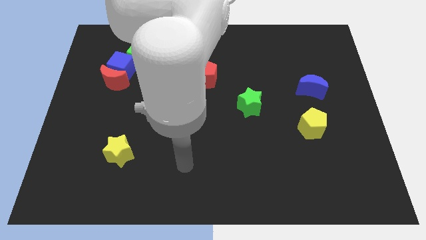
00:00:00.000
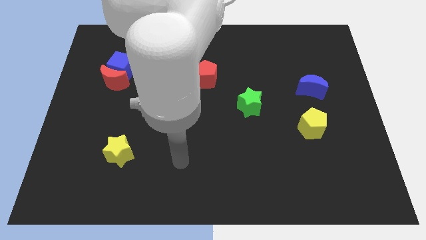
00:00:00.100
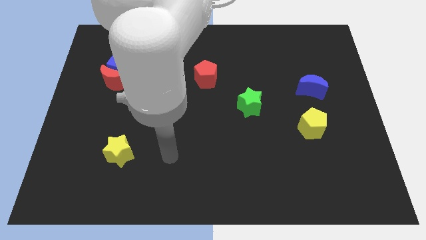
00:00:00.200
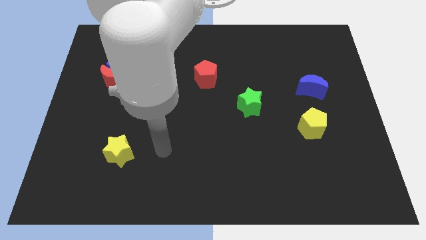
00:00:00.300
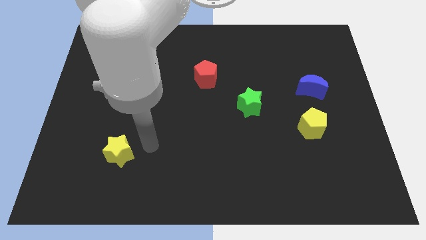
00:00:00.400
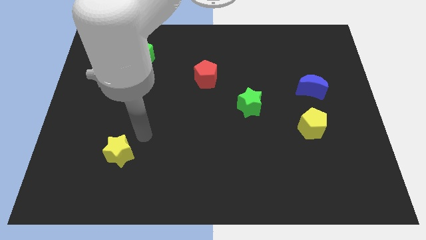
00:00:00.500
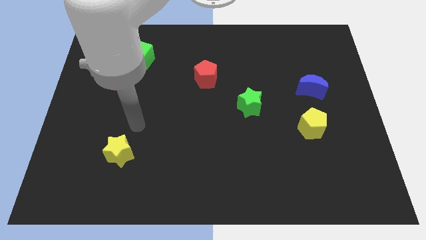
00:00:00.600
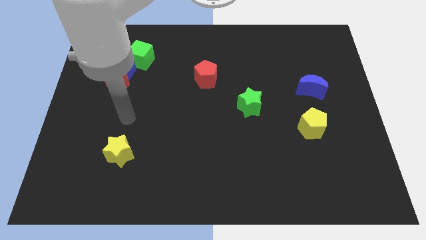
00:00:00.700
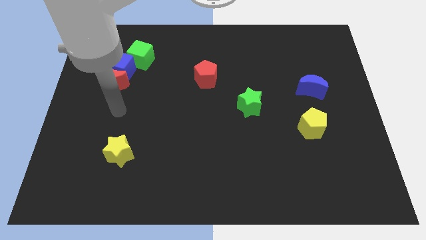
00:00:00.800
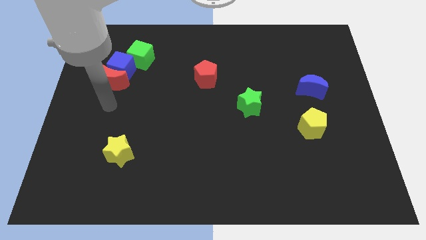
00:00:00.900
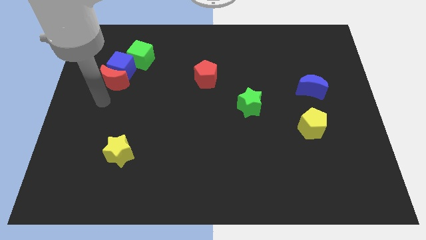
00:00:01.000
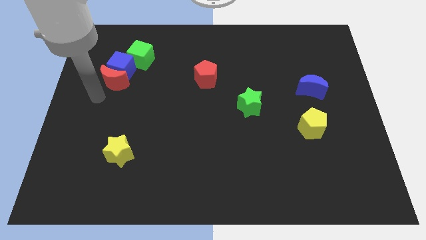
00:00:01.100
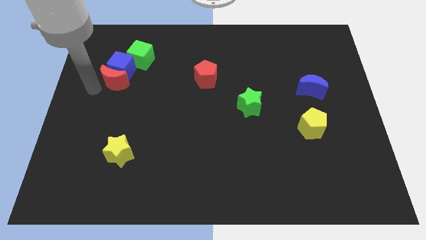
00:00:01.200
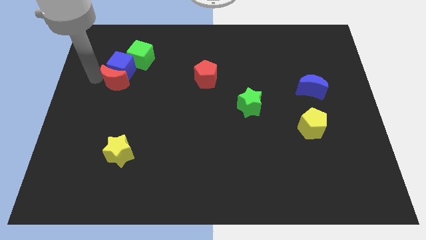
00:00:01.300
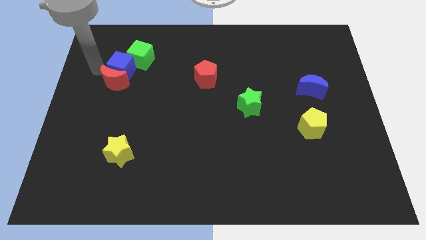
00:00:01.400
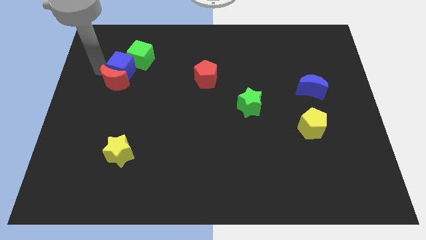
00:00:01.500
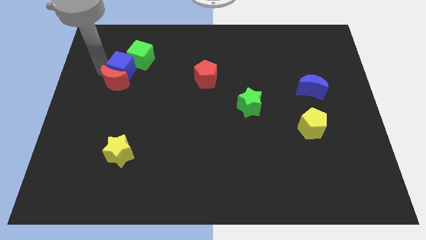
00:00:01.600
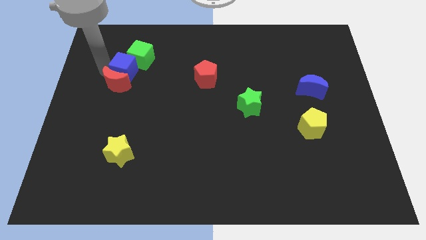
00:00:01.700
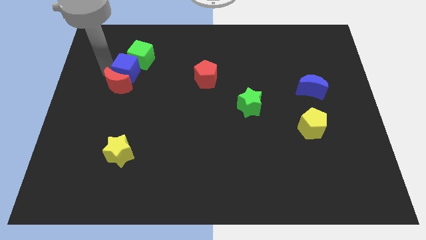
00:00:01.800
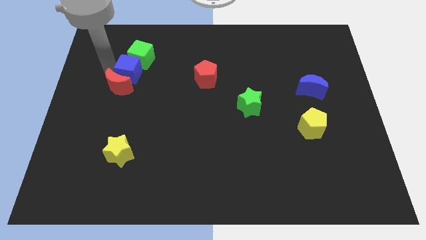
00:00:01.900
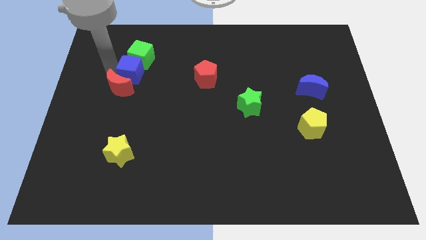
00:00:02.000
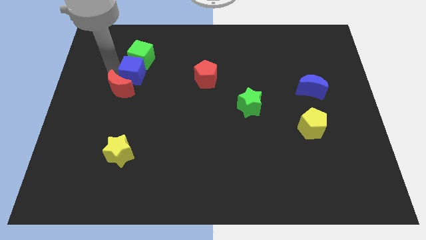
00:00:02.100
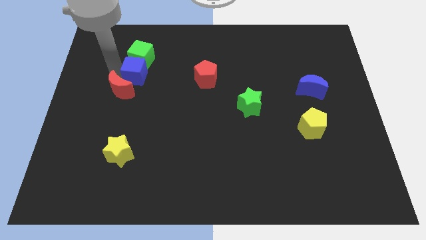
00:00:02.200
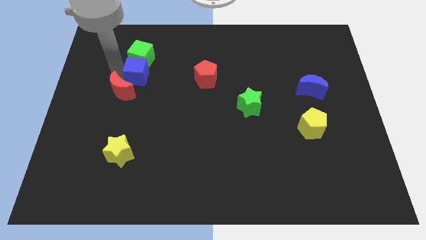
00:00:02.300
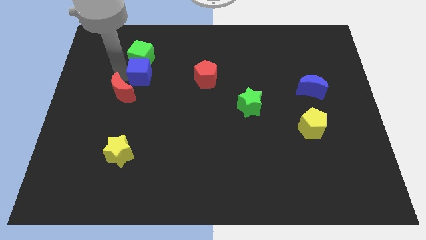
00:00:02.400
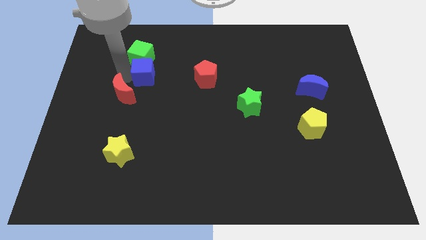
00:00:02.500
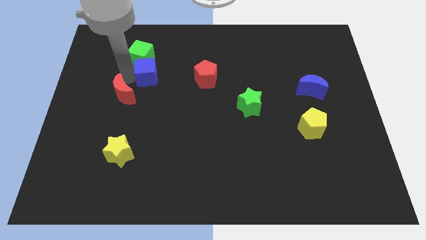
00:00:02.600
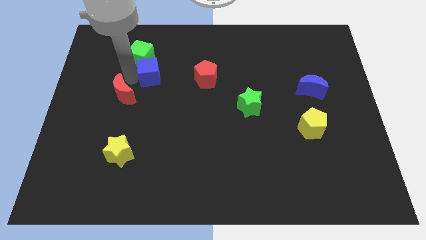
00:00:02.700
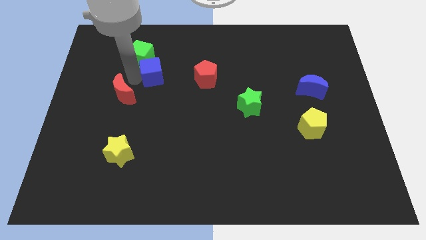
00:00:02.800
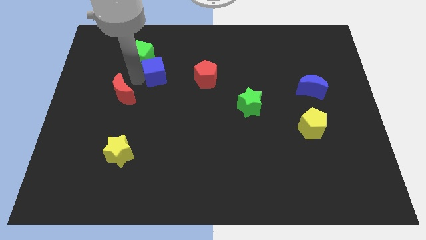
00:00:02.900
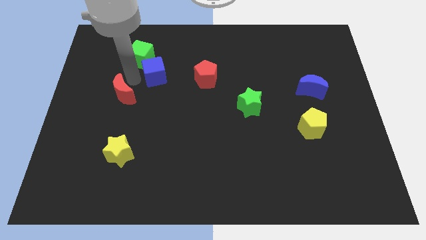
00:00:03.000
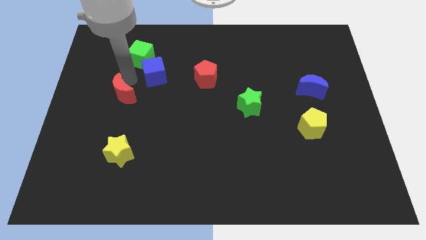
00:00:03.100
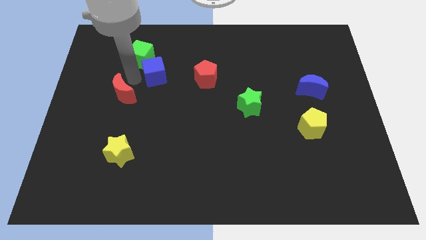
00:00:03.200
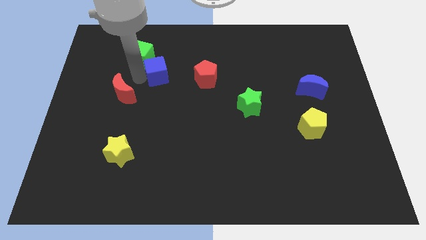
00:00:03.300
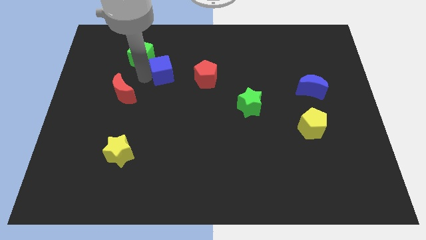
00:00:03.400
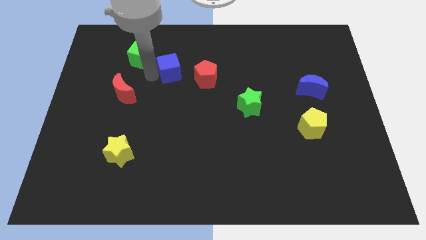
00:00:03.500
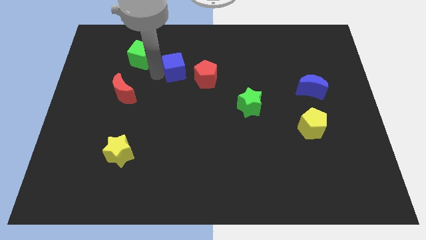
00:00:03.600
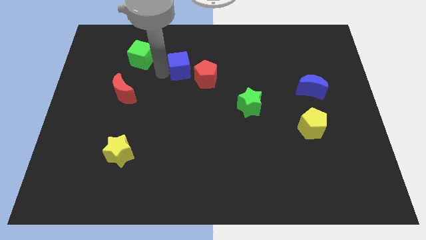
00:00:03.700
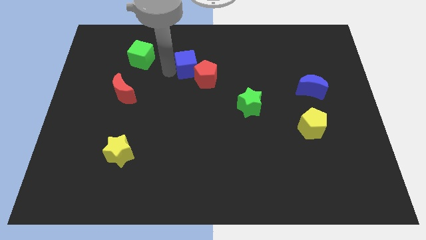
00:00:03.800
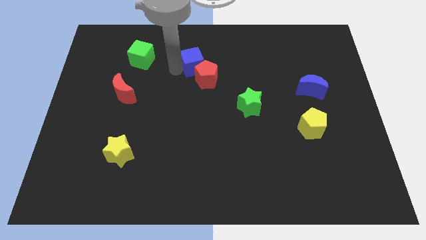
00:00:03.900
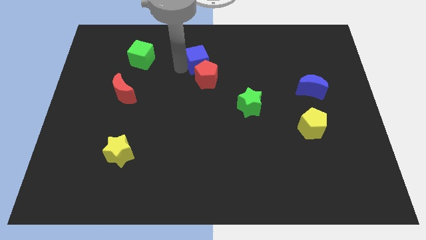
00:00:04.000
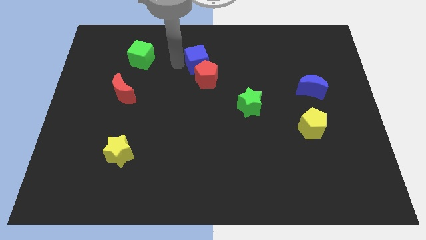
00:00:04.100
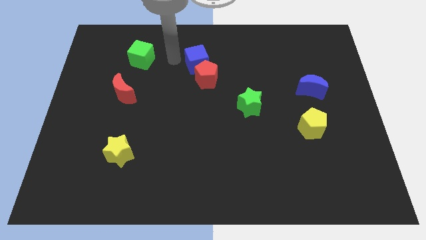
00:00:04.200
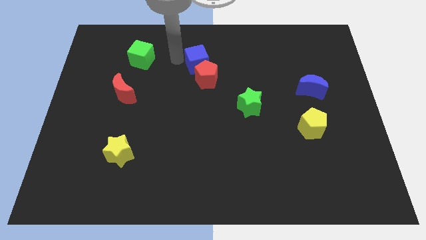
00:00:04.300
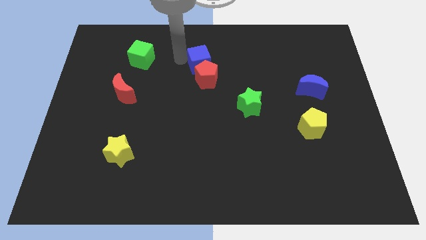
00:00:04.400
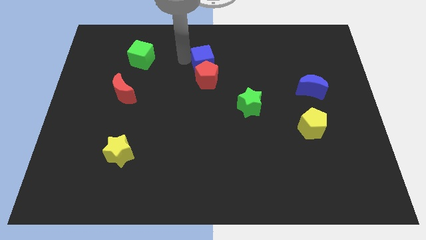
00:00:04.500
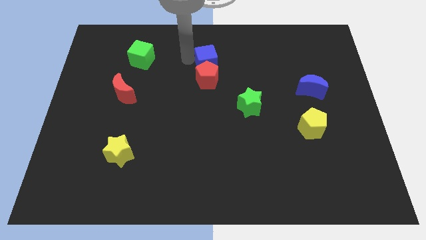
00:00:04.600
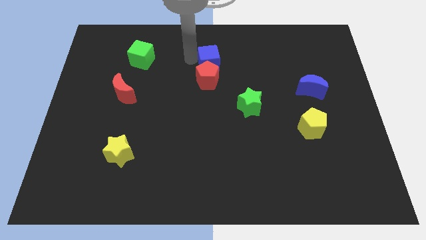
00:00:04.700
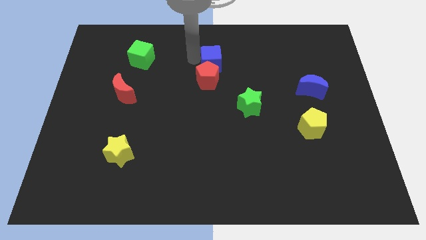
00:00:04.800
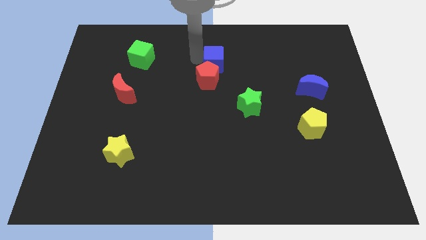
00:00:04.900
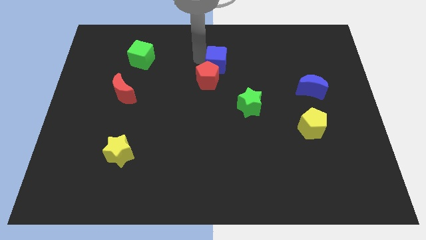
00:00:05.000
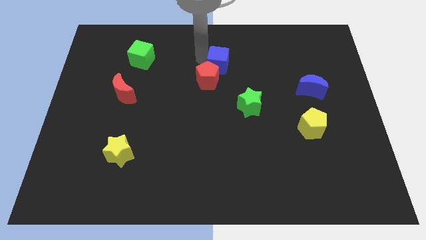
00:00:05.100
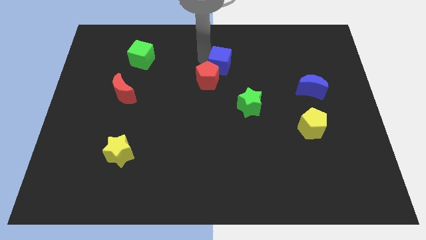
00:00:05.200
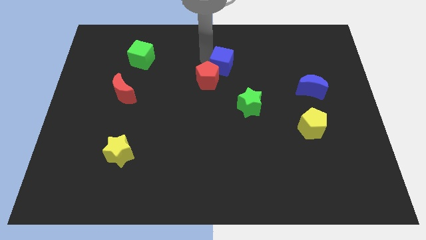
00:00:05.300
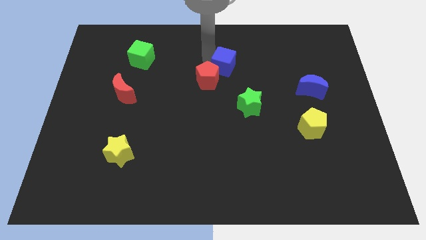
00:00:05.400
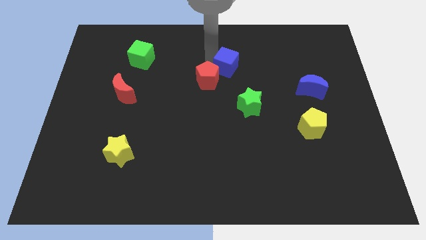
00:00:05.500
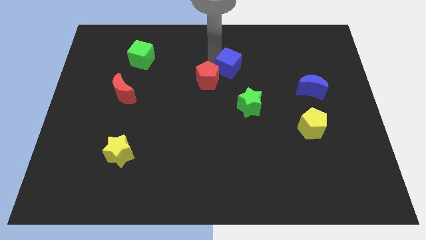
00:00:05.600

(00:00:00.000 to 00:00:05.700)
slide the blue cube to the top of the green star
